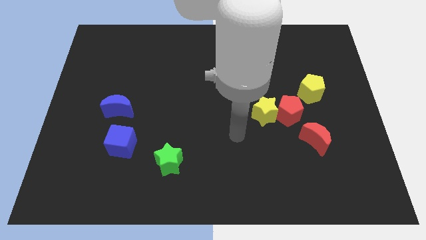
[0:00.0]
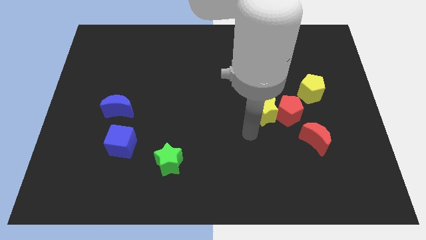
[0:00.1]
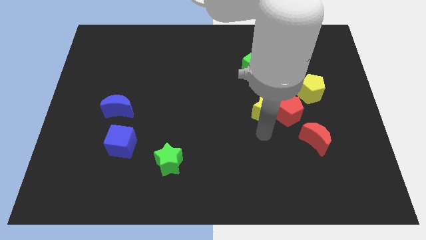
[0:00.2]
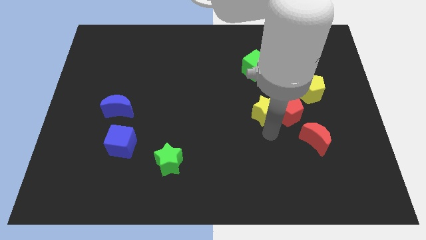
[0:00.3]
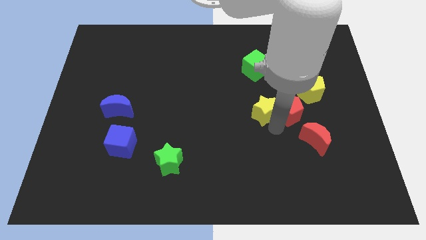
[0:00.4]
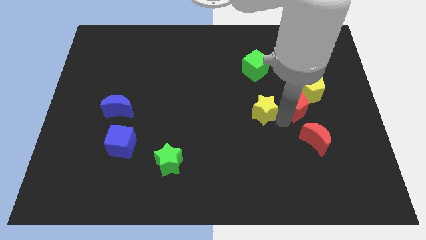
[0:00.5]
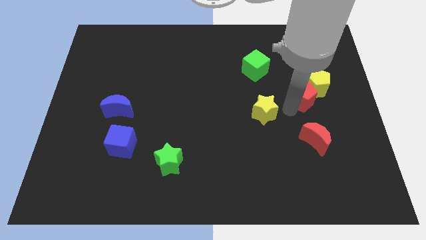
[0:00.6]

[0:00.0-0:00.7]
pull the yellow star apart from the red pentagon

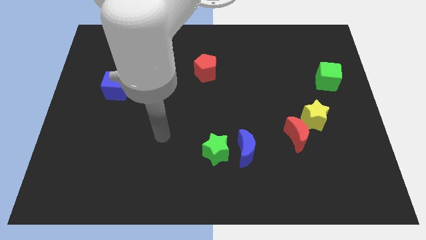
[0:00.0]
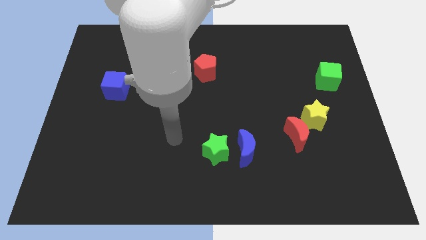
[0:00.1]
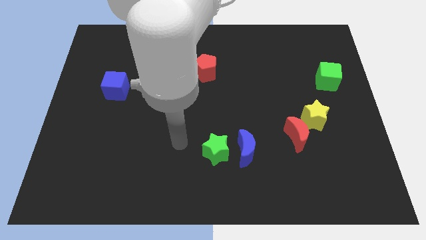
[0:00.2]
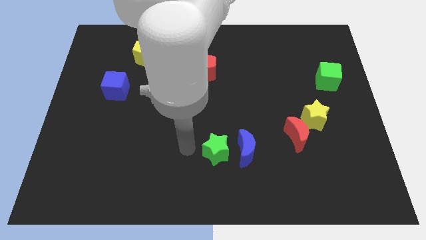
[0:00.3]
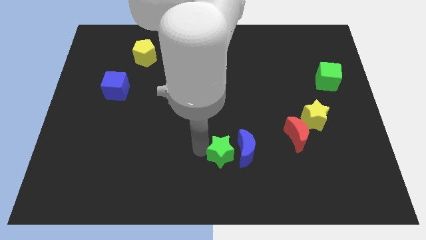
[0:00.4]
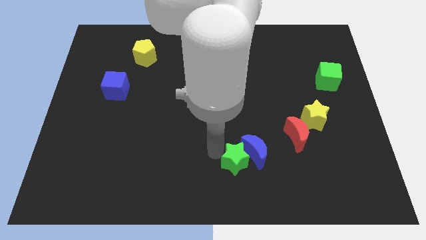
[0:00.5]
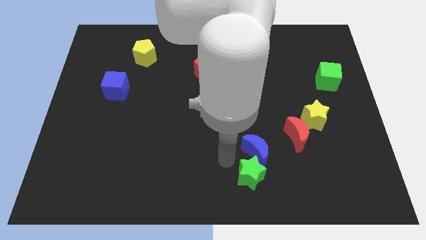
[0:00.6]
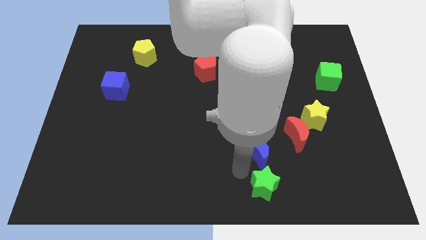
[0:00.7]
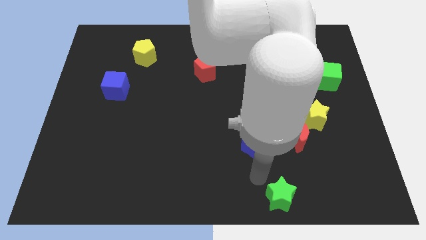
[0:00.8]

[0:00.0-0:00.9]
separate the blue moon from the green star

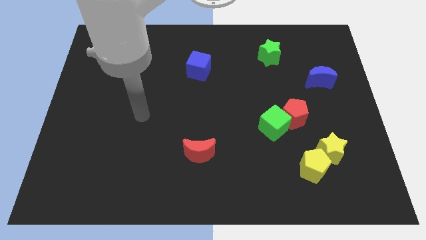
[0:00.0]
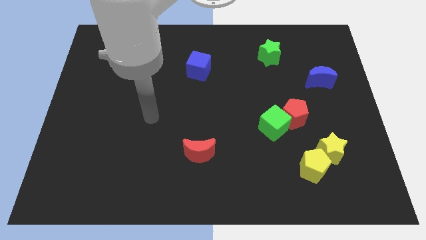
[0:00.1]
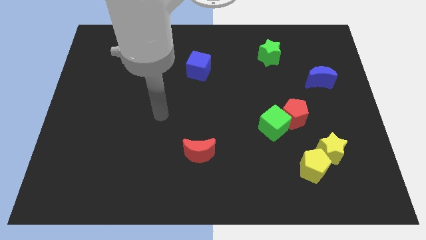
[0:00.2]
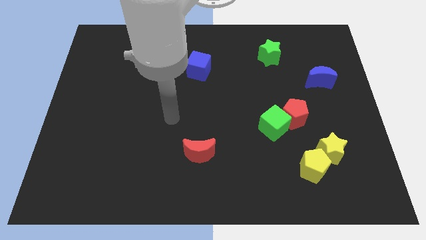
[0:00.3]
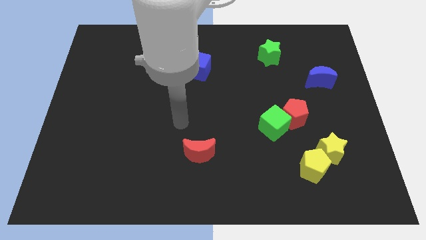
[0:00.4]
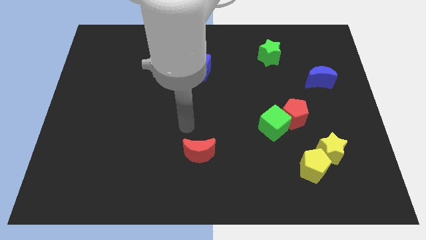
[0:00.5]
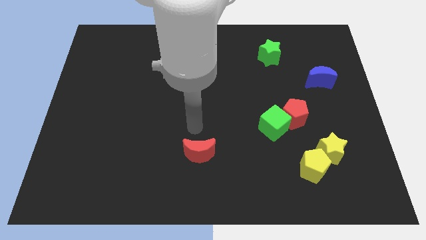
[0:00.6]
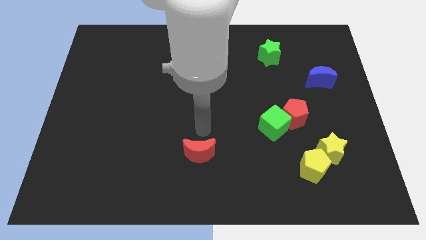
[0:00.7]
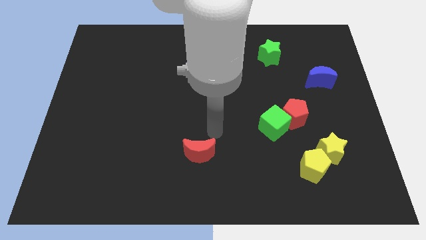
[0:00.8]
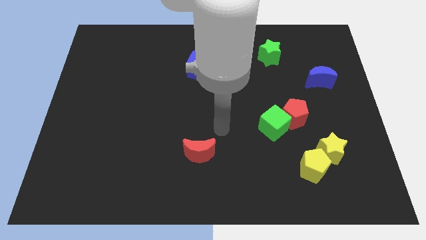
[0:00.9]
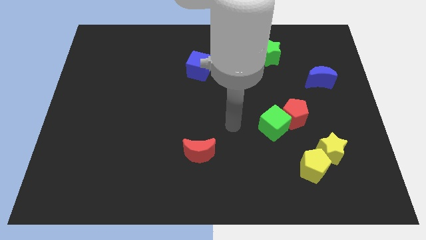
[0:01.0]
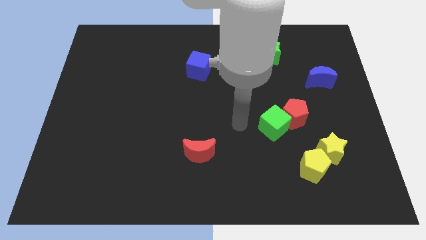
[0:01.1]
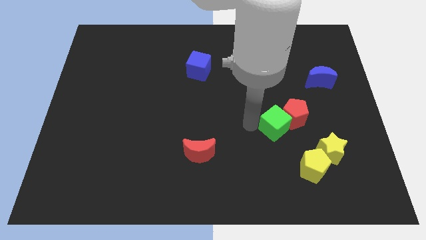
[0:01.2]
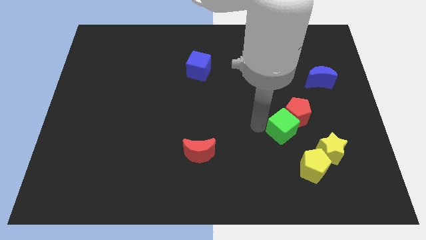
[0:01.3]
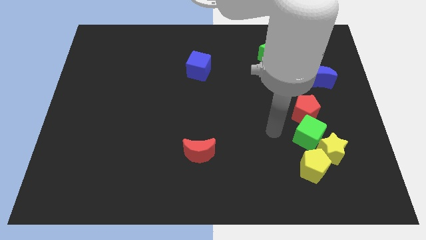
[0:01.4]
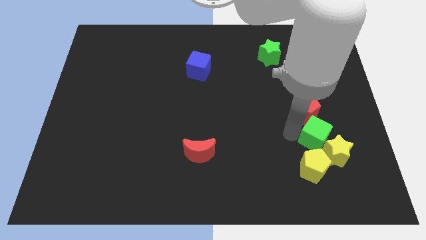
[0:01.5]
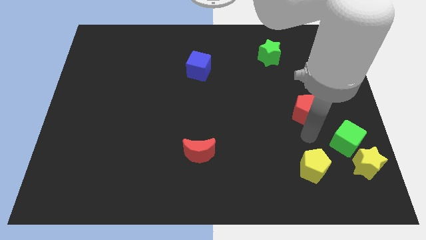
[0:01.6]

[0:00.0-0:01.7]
pull the red pentagon apart from the green cube

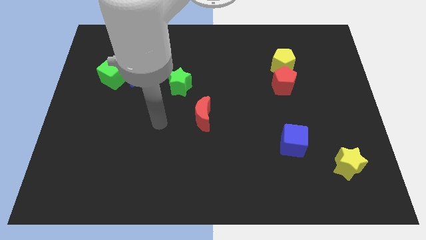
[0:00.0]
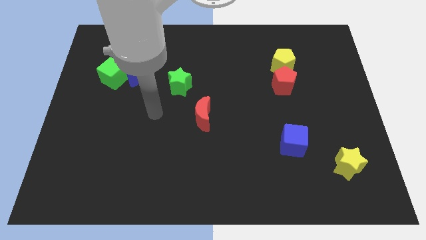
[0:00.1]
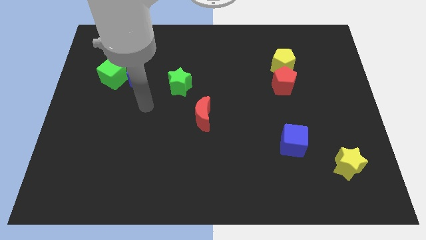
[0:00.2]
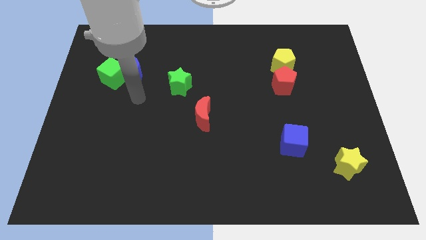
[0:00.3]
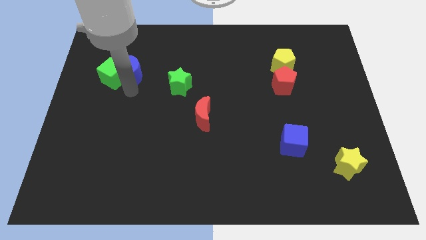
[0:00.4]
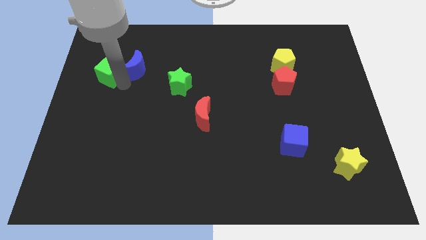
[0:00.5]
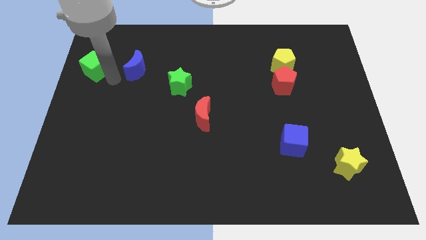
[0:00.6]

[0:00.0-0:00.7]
separate the blue moon from the green cube

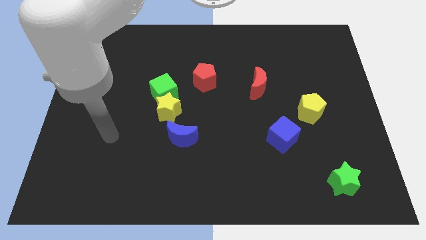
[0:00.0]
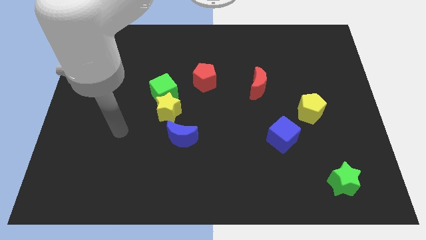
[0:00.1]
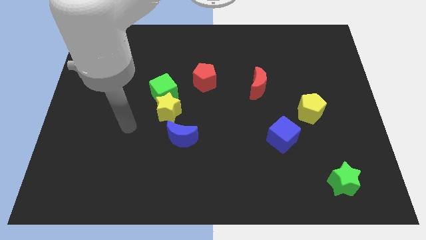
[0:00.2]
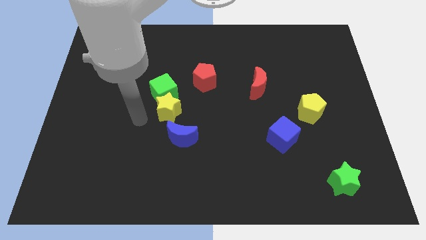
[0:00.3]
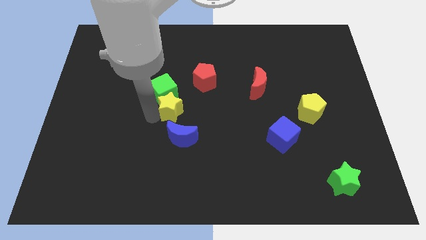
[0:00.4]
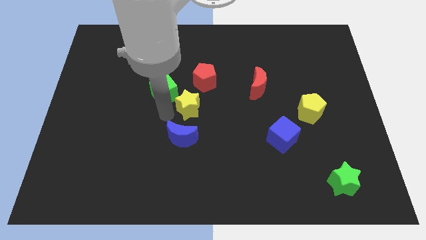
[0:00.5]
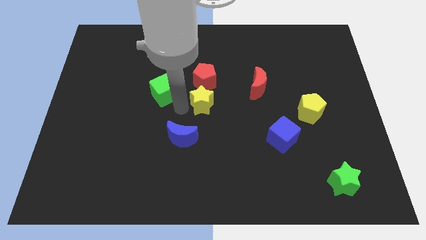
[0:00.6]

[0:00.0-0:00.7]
move the green cube away from the yellow star

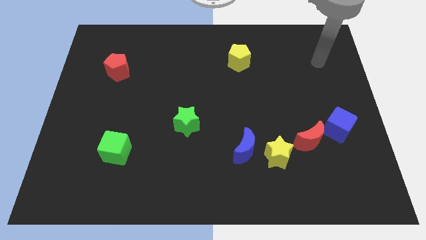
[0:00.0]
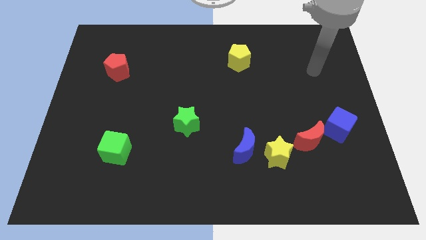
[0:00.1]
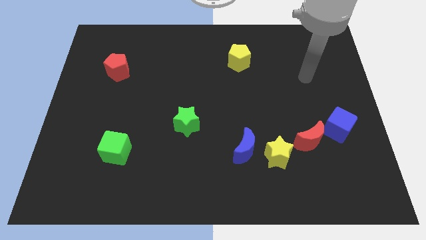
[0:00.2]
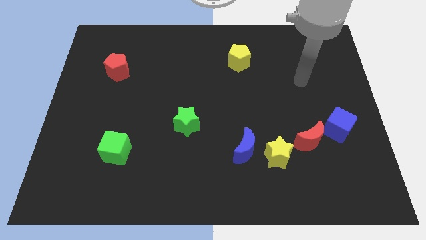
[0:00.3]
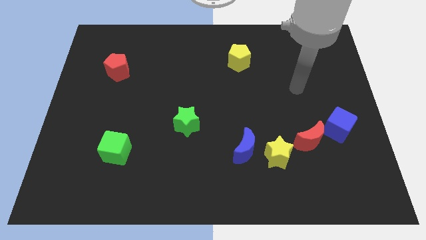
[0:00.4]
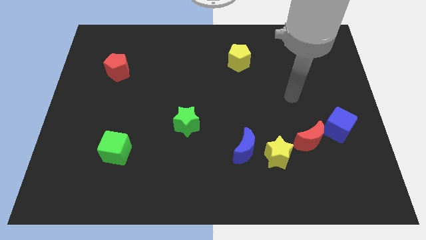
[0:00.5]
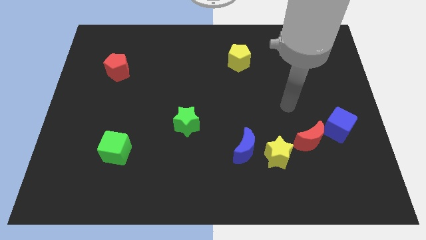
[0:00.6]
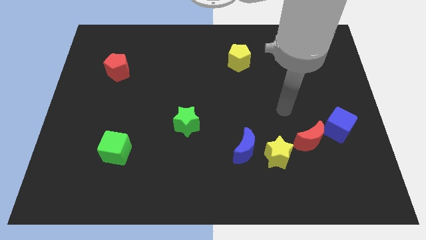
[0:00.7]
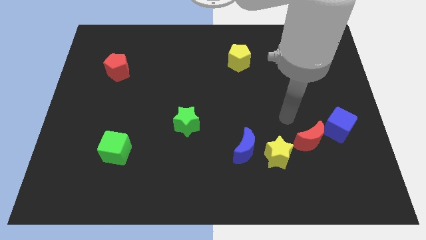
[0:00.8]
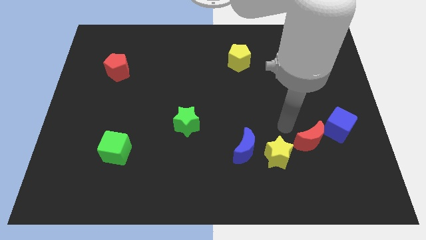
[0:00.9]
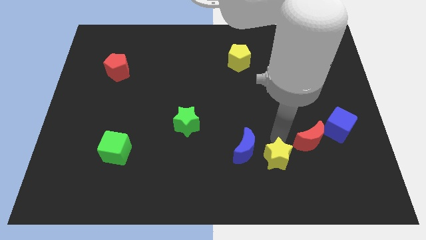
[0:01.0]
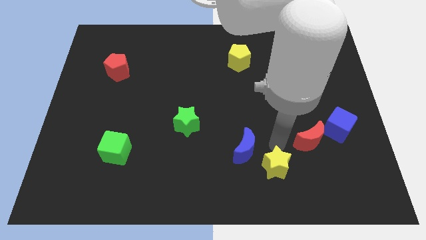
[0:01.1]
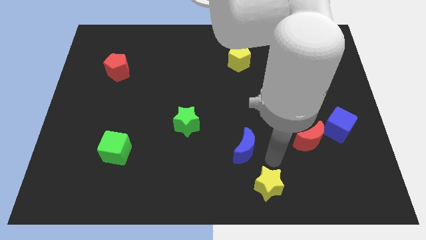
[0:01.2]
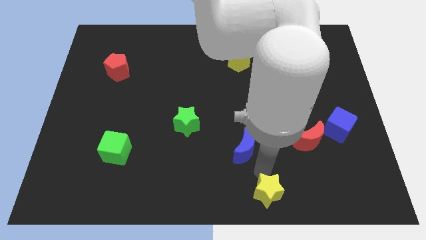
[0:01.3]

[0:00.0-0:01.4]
pull the blue moon apart from the yellow star

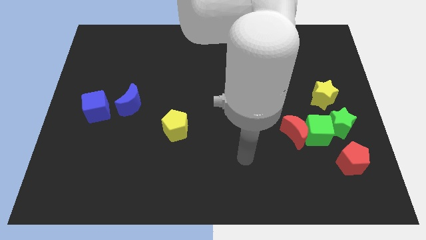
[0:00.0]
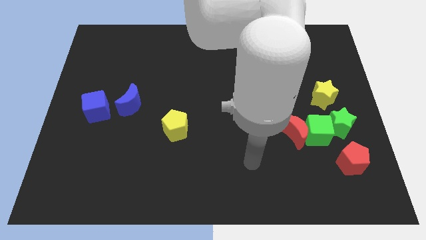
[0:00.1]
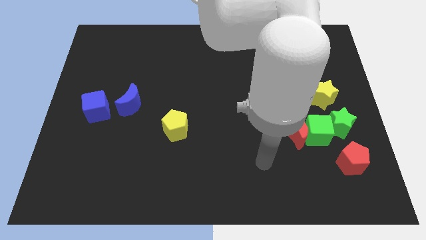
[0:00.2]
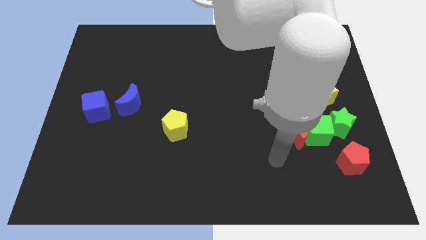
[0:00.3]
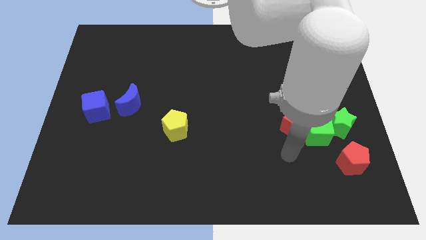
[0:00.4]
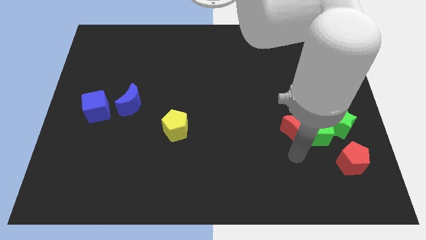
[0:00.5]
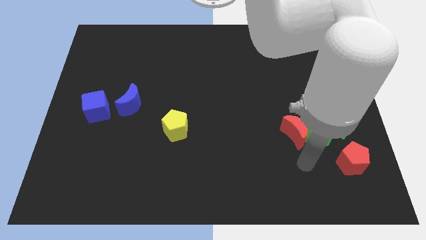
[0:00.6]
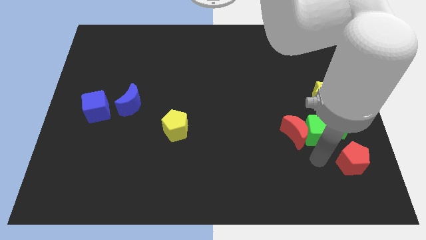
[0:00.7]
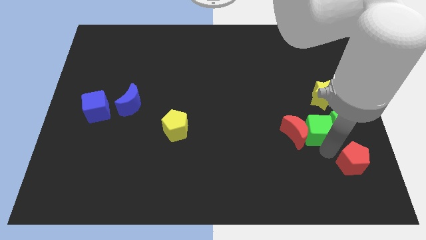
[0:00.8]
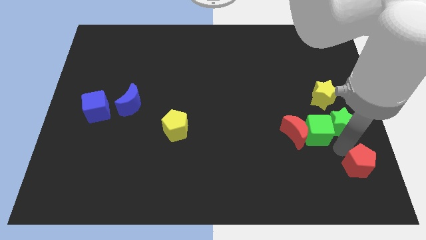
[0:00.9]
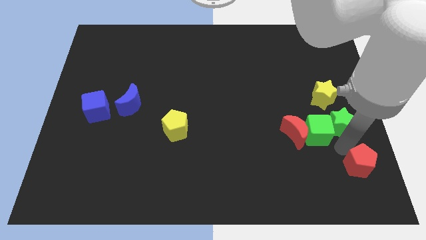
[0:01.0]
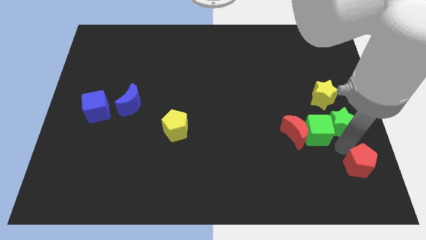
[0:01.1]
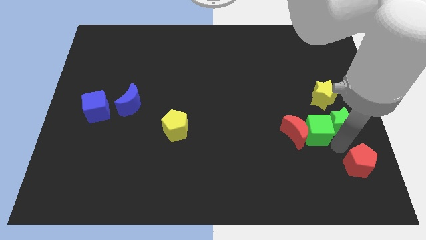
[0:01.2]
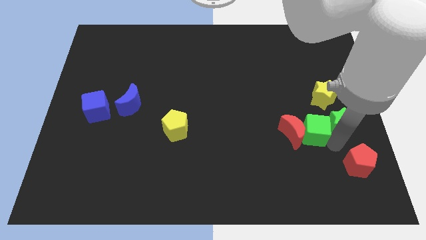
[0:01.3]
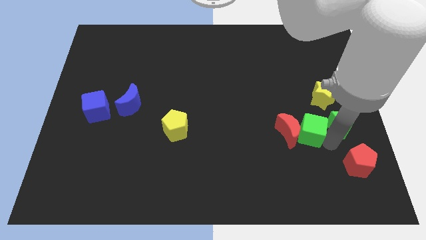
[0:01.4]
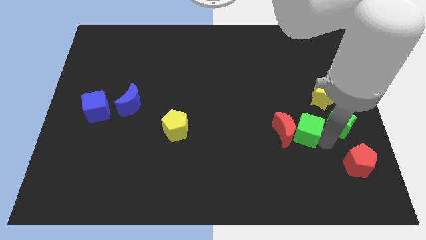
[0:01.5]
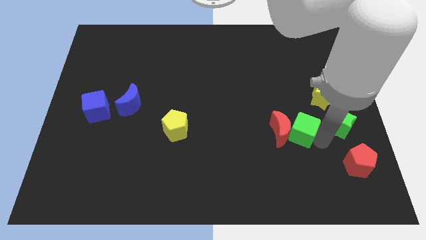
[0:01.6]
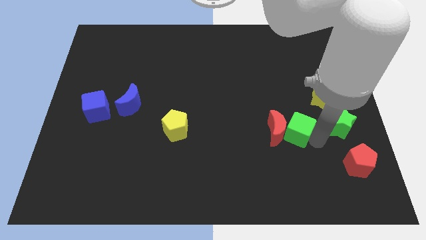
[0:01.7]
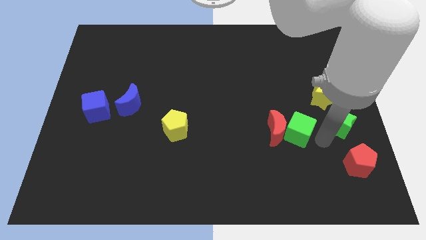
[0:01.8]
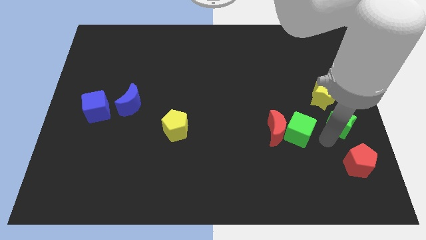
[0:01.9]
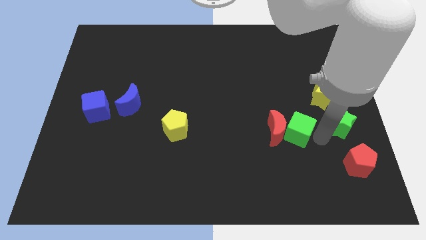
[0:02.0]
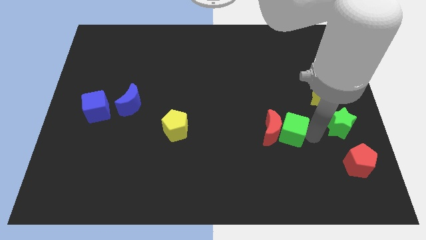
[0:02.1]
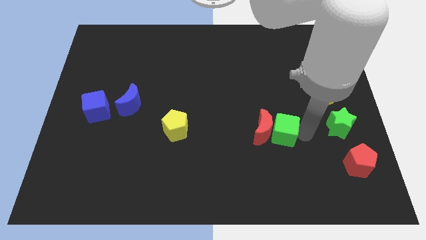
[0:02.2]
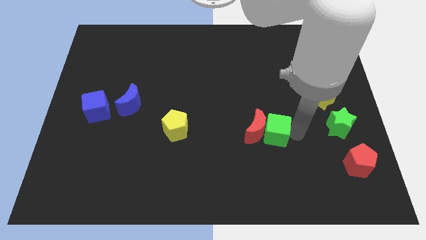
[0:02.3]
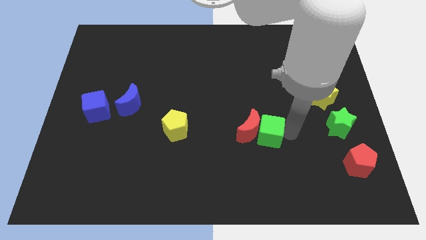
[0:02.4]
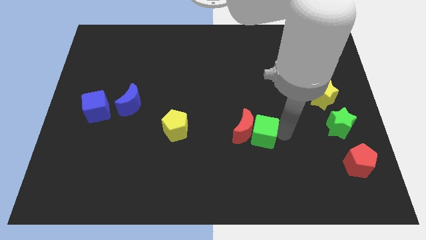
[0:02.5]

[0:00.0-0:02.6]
move the green cube away from the group of blocks

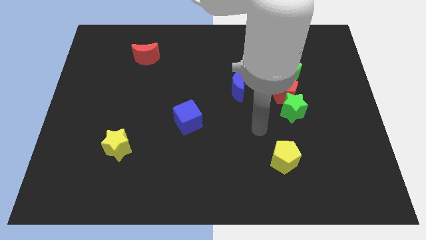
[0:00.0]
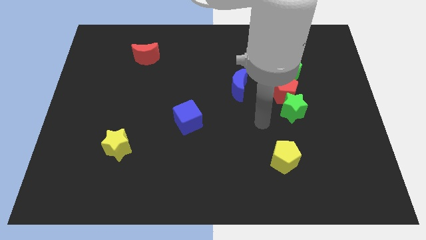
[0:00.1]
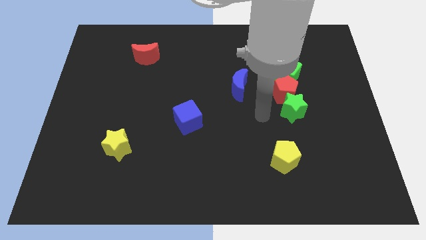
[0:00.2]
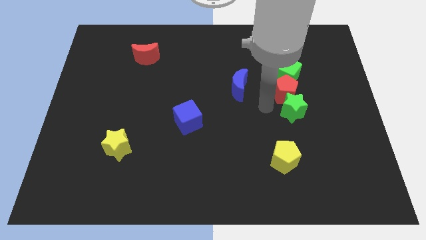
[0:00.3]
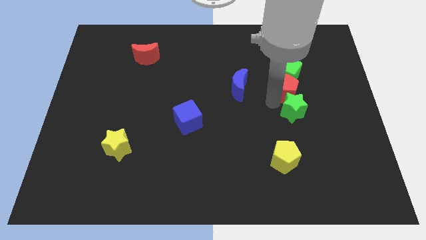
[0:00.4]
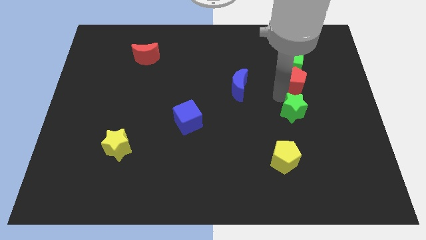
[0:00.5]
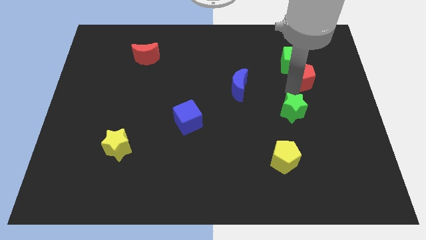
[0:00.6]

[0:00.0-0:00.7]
move the green star away from the red pentagon
